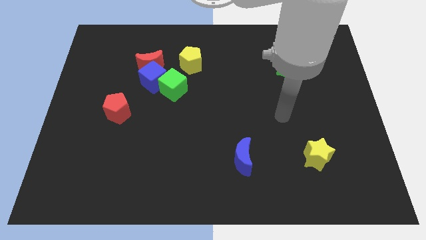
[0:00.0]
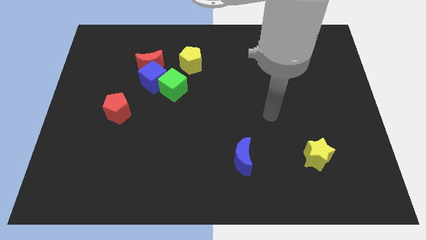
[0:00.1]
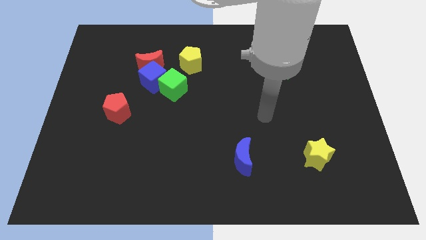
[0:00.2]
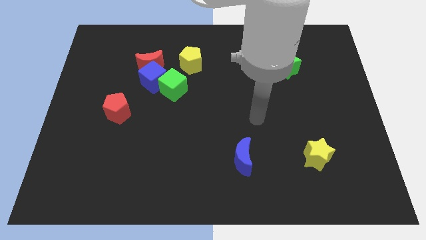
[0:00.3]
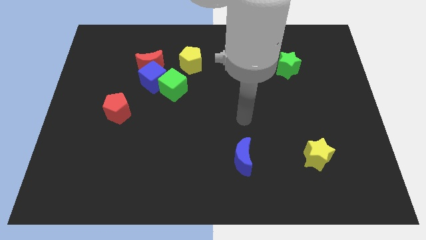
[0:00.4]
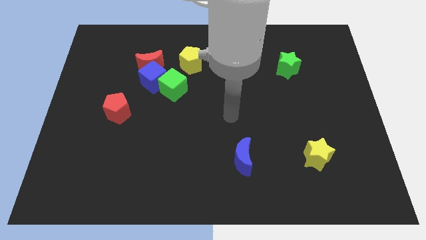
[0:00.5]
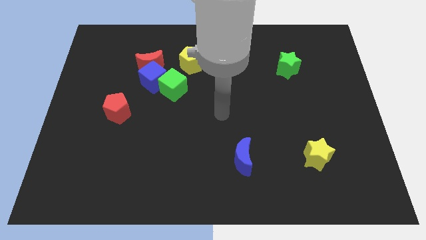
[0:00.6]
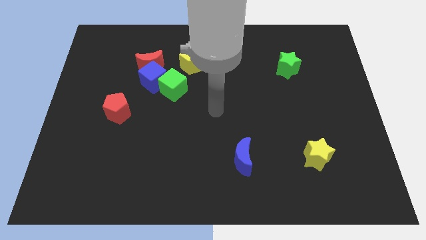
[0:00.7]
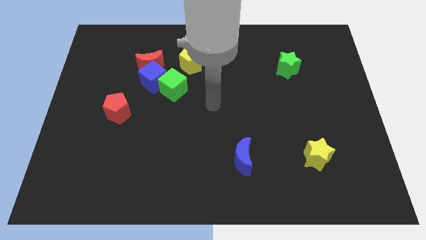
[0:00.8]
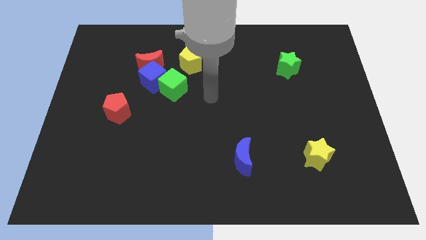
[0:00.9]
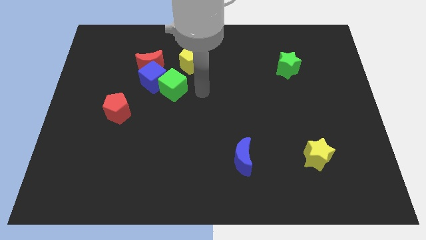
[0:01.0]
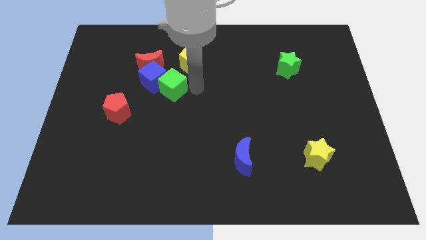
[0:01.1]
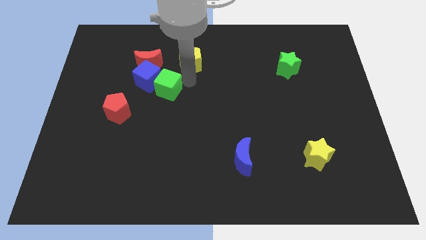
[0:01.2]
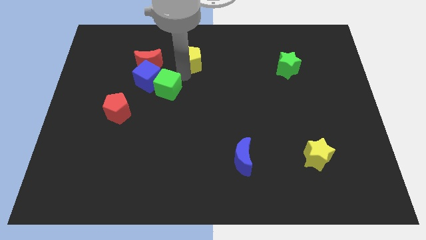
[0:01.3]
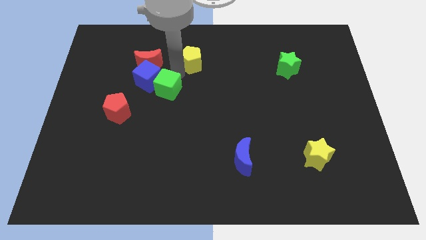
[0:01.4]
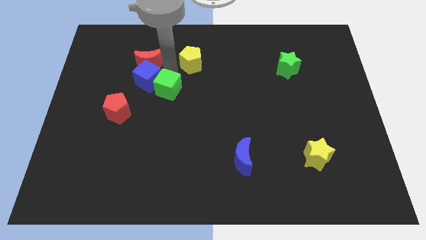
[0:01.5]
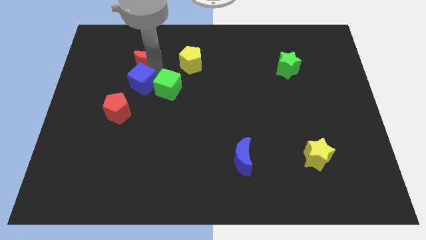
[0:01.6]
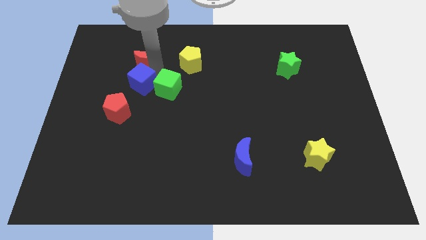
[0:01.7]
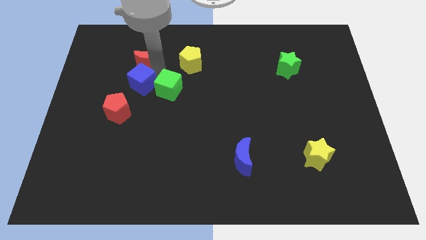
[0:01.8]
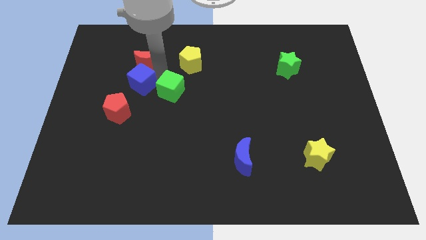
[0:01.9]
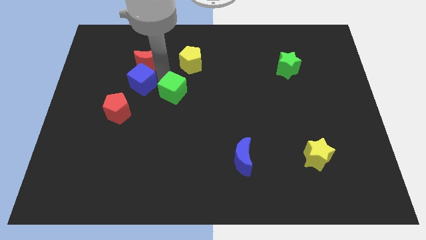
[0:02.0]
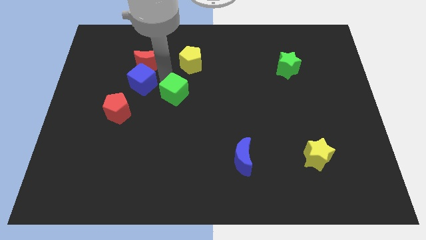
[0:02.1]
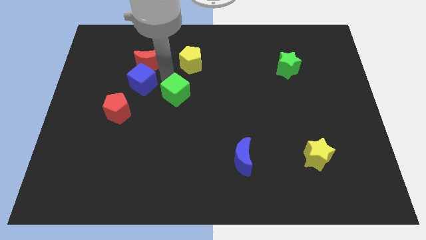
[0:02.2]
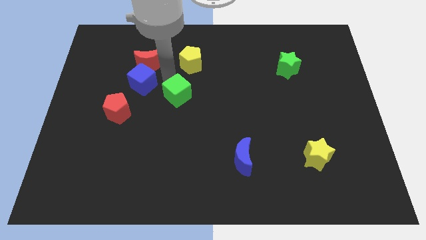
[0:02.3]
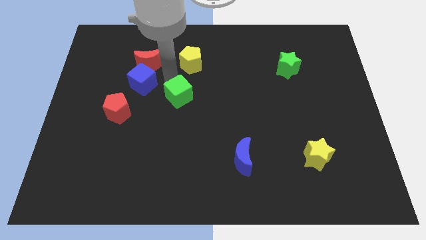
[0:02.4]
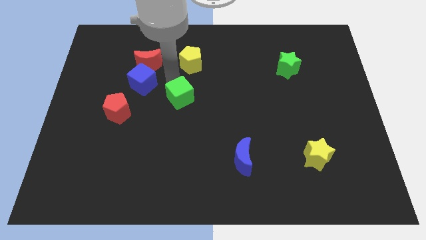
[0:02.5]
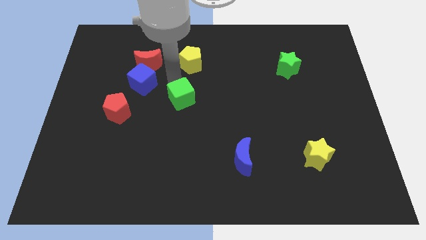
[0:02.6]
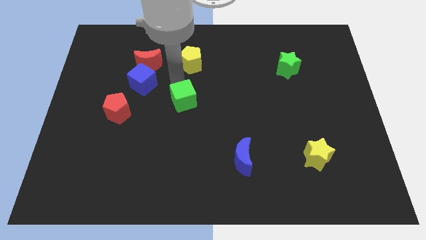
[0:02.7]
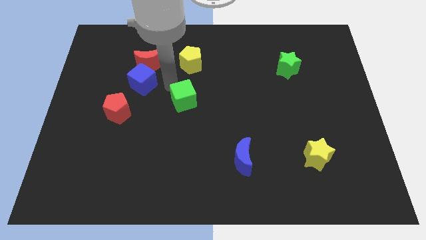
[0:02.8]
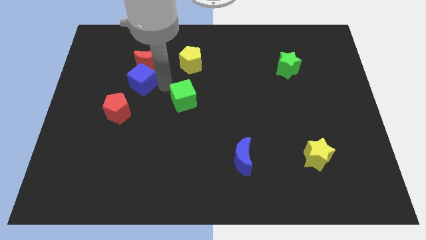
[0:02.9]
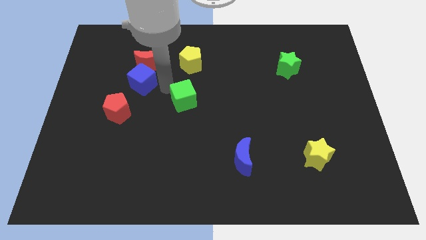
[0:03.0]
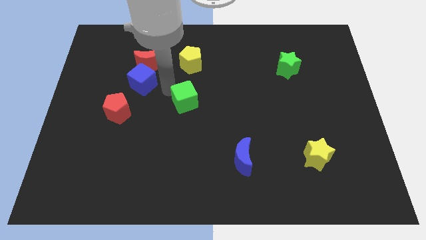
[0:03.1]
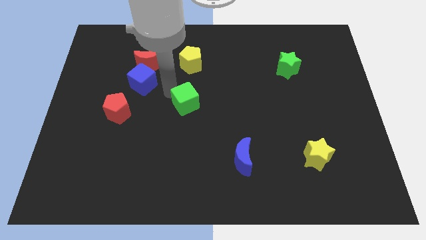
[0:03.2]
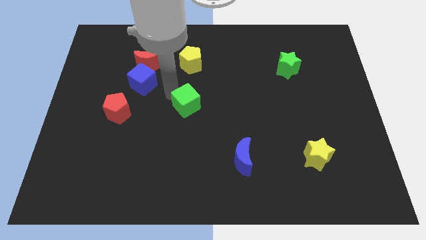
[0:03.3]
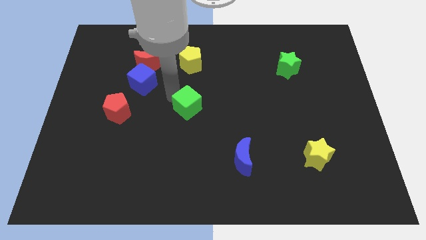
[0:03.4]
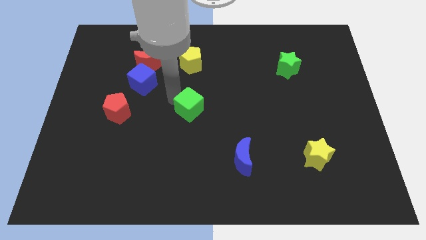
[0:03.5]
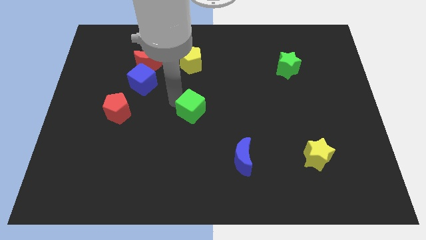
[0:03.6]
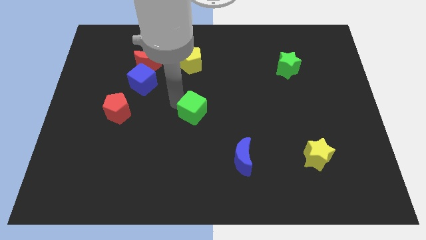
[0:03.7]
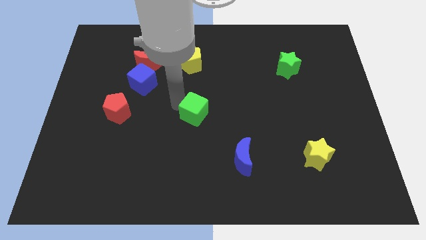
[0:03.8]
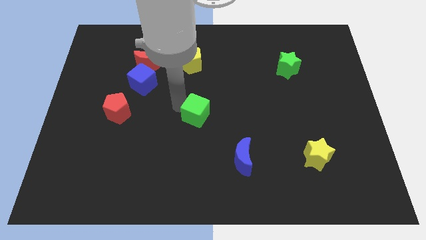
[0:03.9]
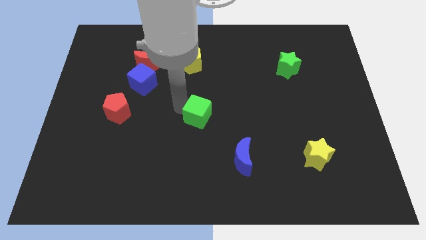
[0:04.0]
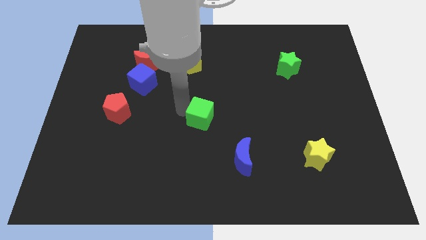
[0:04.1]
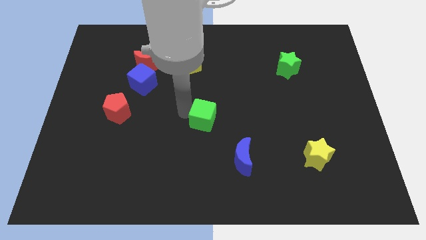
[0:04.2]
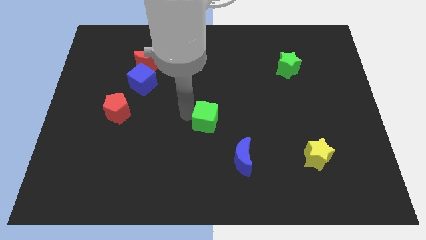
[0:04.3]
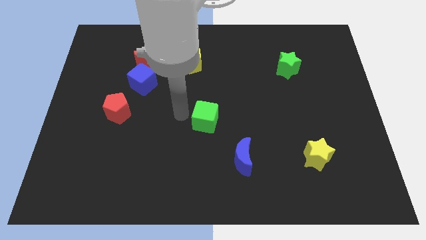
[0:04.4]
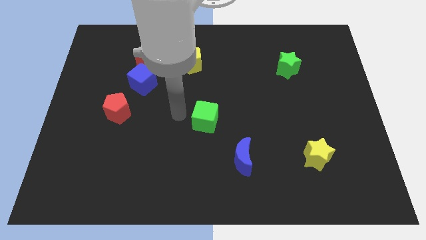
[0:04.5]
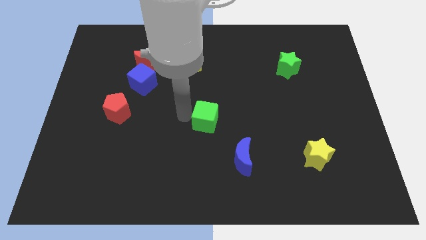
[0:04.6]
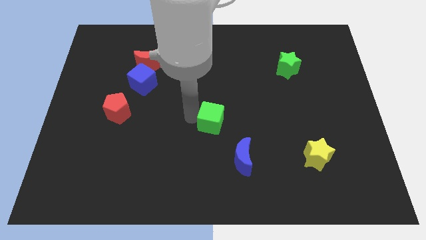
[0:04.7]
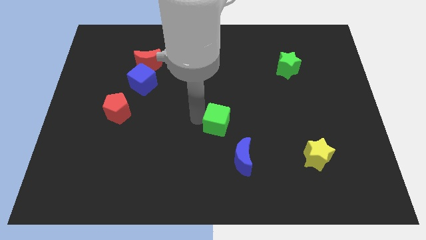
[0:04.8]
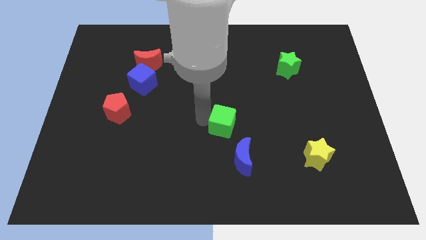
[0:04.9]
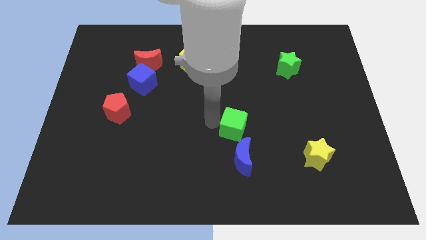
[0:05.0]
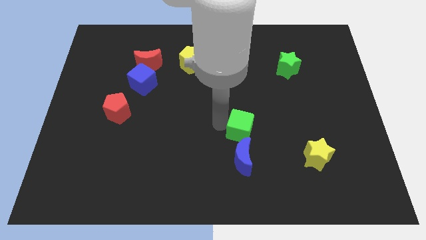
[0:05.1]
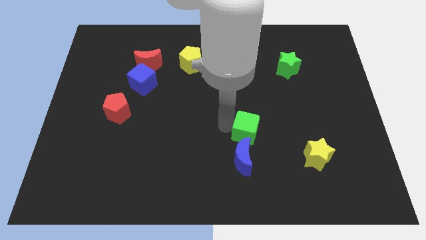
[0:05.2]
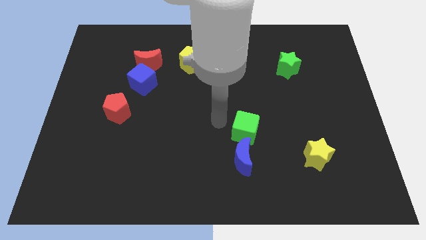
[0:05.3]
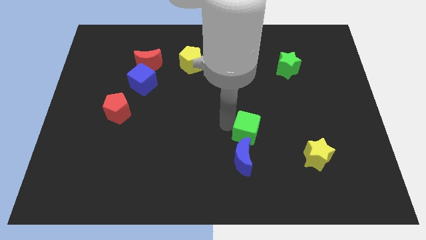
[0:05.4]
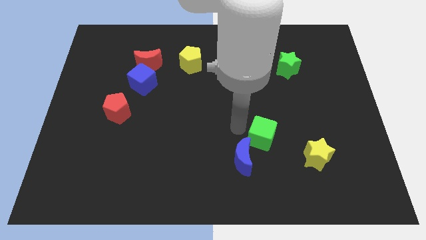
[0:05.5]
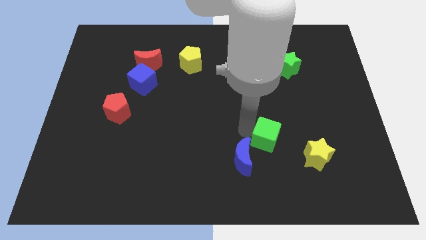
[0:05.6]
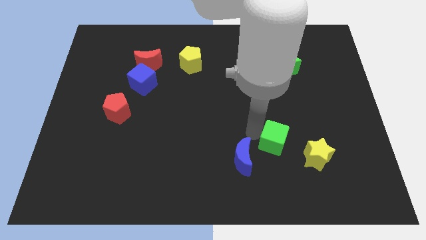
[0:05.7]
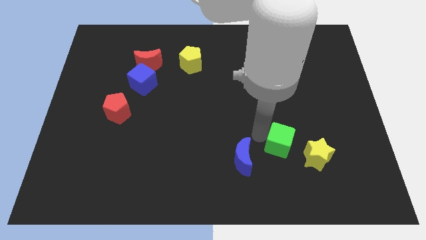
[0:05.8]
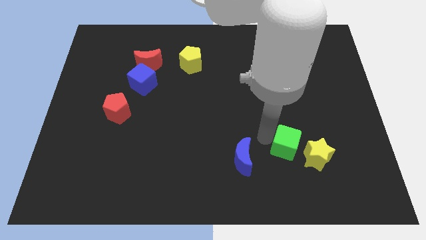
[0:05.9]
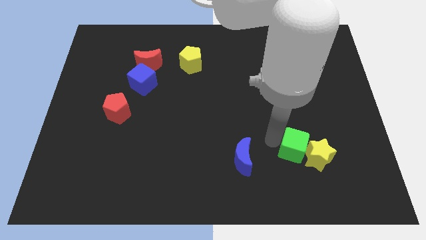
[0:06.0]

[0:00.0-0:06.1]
push the green cube towards the yellow star

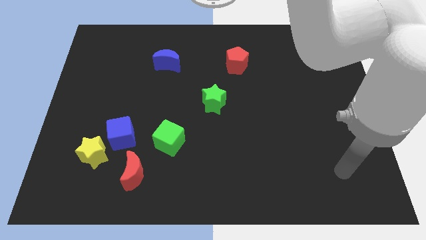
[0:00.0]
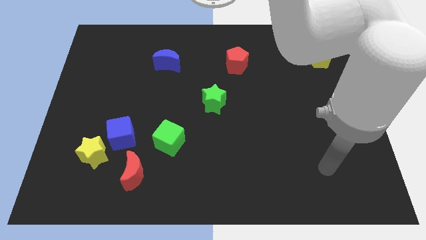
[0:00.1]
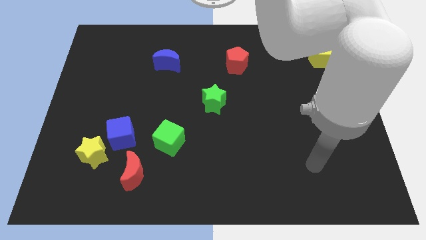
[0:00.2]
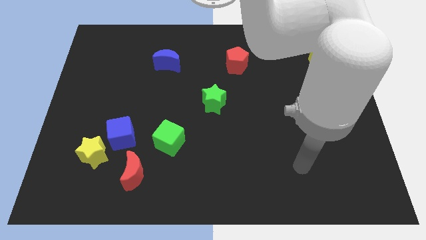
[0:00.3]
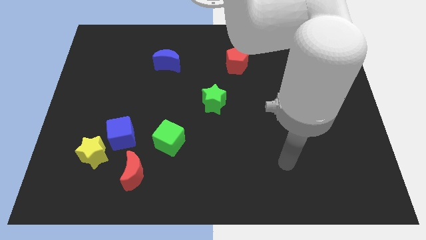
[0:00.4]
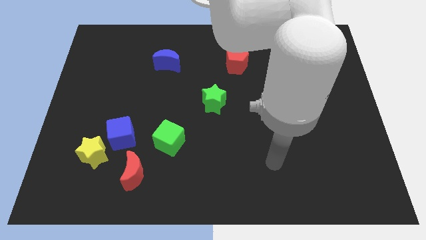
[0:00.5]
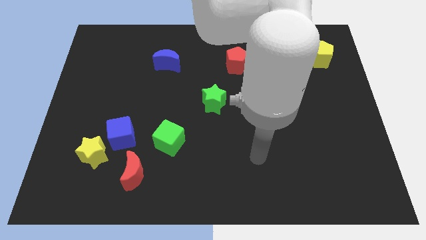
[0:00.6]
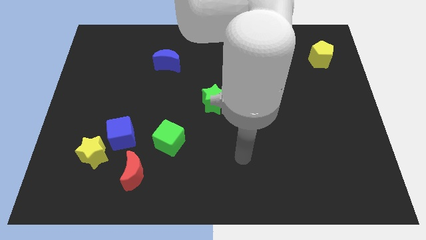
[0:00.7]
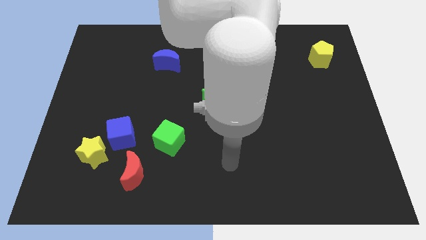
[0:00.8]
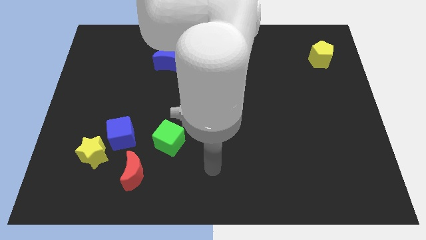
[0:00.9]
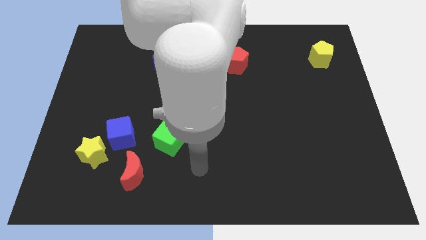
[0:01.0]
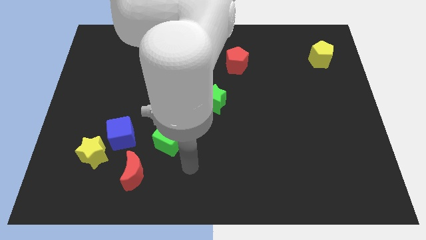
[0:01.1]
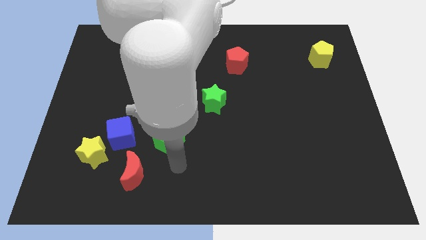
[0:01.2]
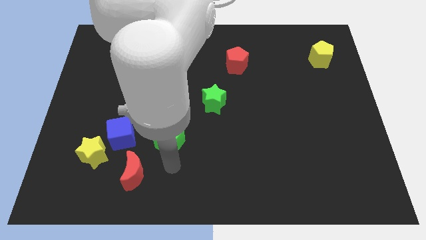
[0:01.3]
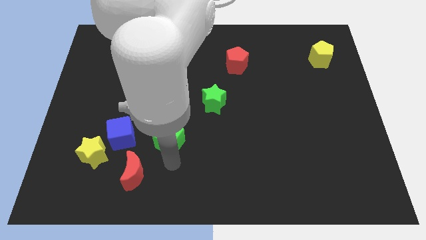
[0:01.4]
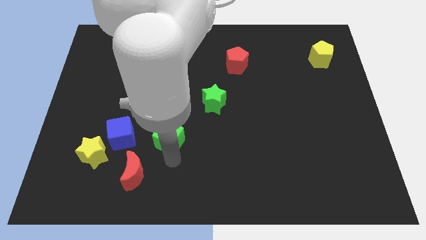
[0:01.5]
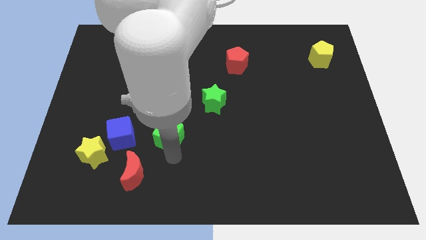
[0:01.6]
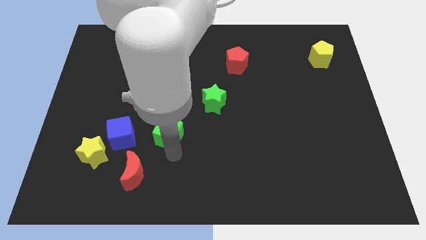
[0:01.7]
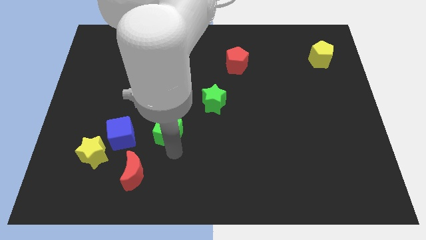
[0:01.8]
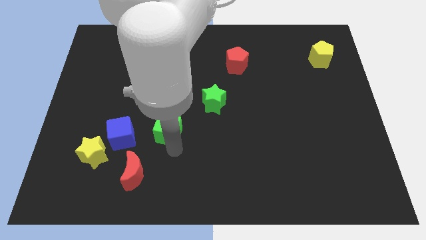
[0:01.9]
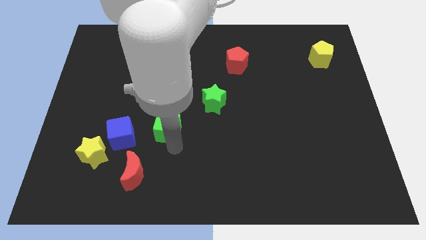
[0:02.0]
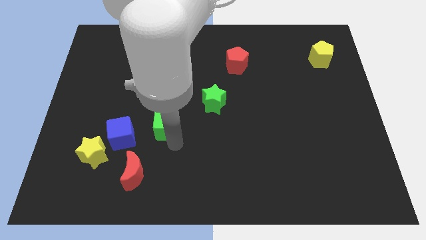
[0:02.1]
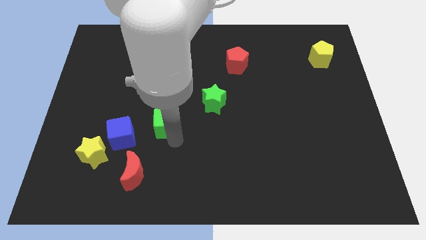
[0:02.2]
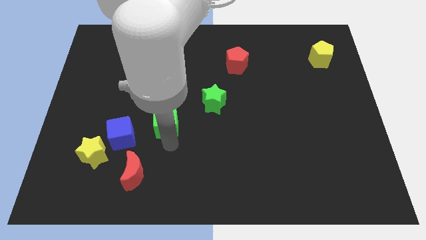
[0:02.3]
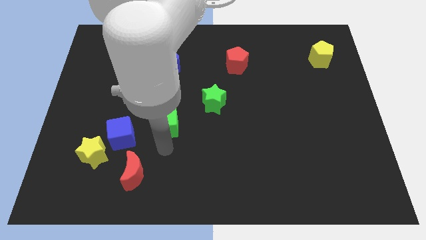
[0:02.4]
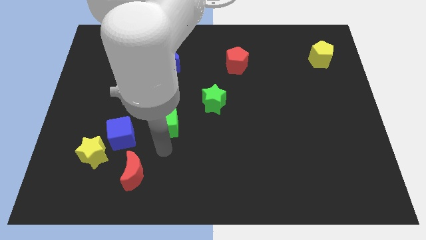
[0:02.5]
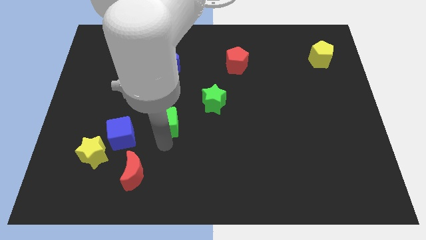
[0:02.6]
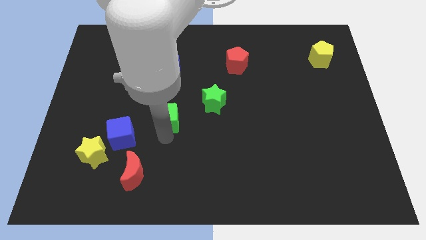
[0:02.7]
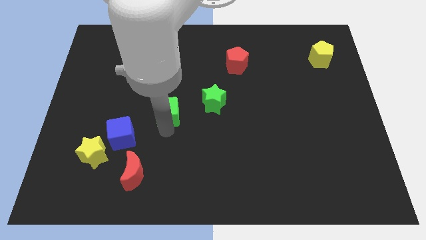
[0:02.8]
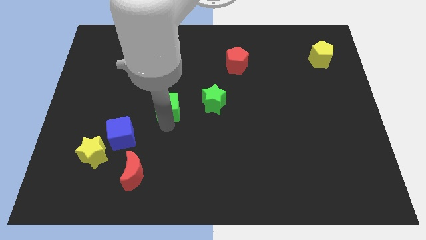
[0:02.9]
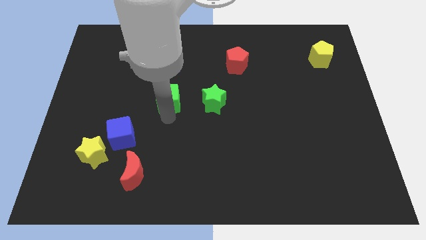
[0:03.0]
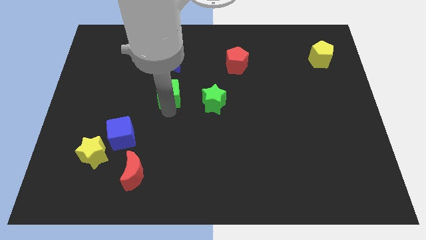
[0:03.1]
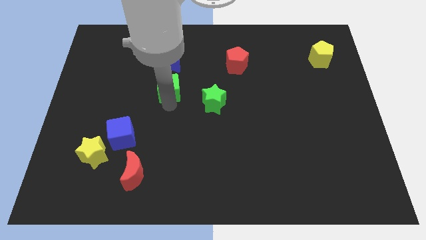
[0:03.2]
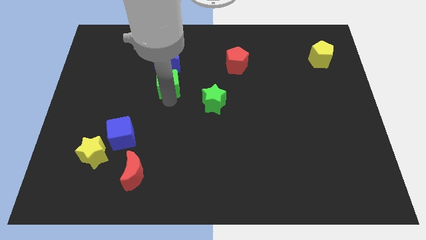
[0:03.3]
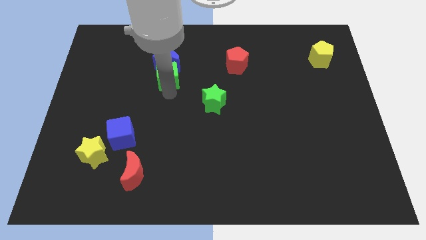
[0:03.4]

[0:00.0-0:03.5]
move the green cube next to the blue moon
